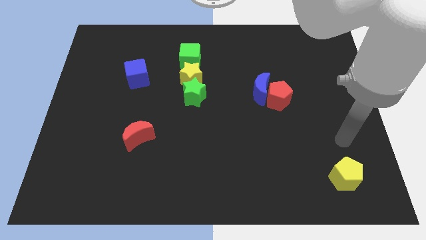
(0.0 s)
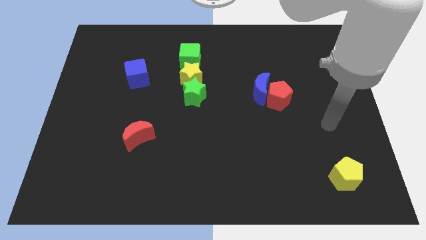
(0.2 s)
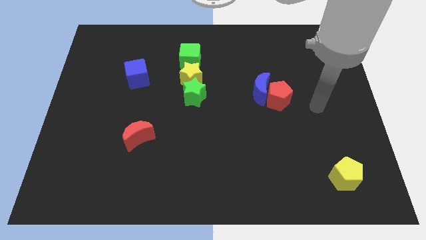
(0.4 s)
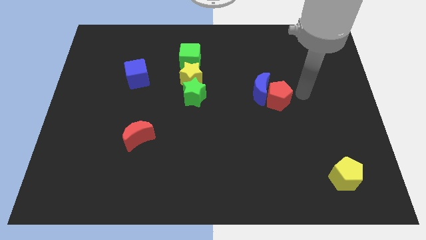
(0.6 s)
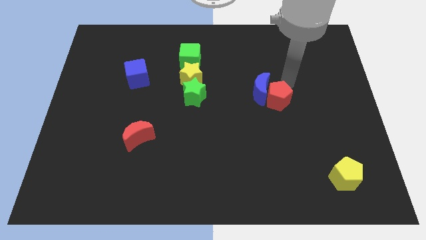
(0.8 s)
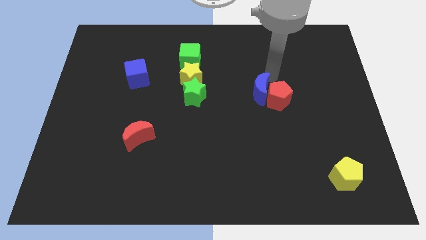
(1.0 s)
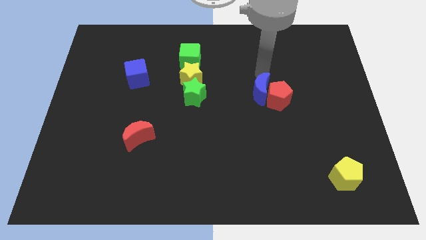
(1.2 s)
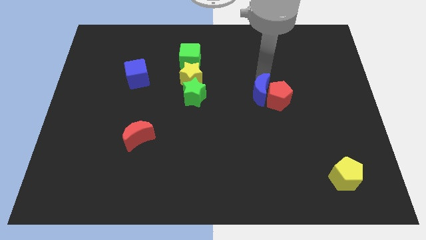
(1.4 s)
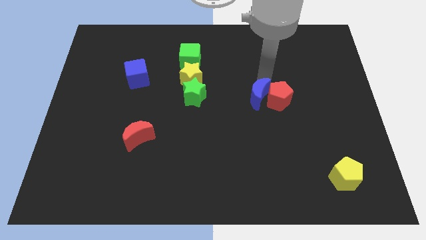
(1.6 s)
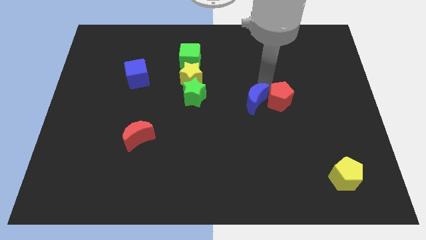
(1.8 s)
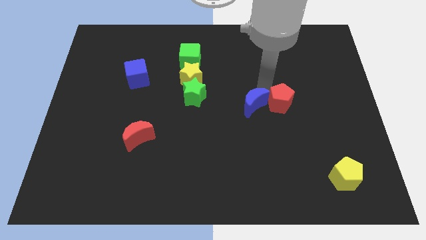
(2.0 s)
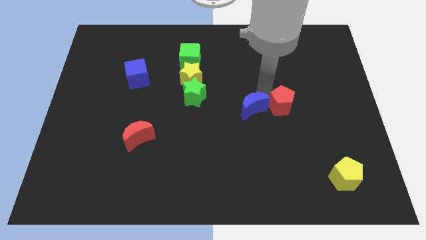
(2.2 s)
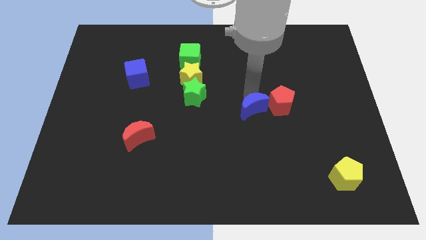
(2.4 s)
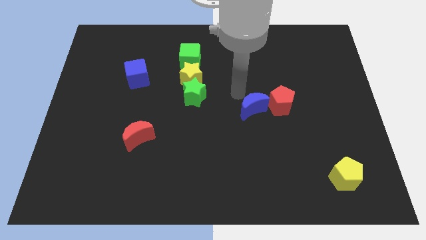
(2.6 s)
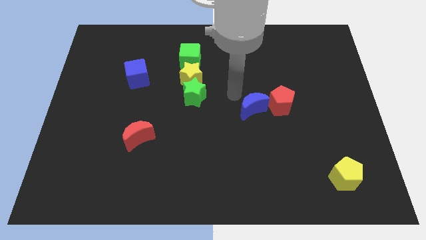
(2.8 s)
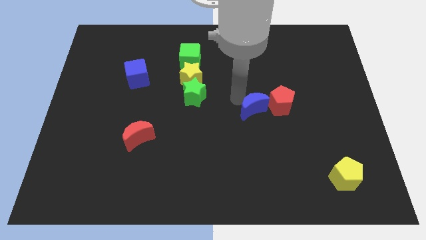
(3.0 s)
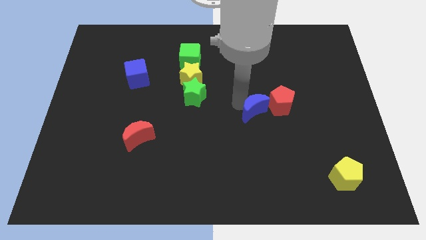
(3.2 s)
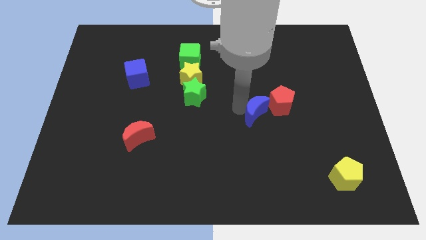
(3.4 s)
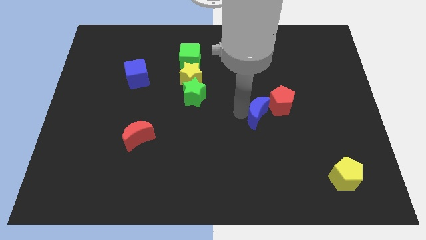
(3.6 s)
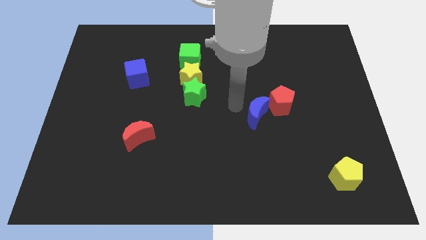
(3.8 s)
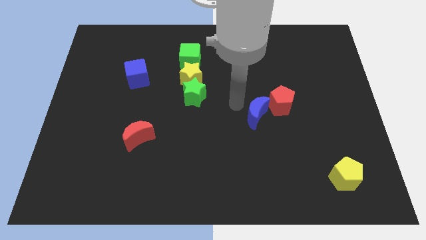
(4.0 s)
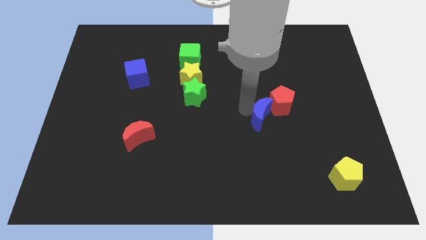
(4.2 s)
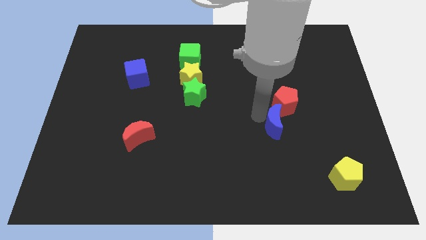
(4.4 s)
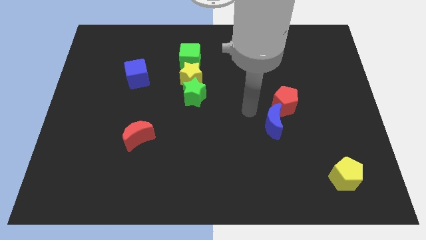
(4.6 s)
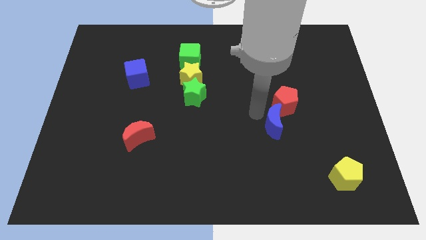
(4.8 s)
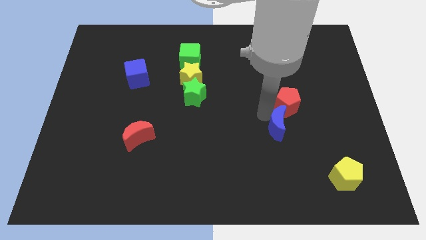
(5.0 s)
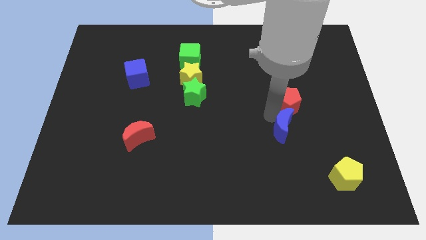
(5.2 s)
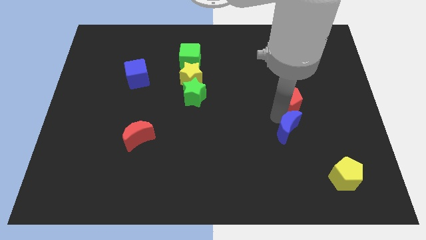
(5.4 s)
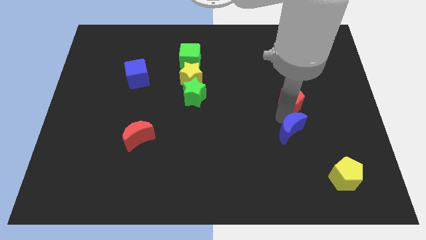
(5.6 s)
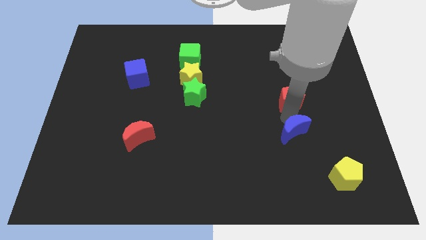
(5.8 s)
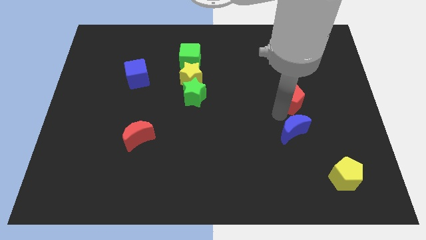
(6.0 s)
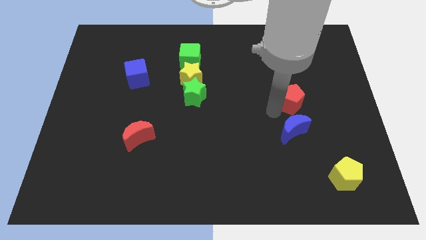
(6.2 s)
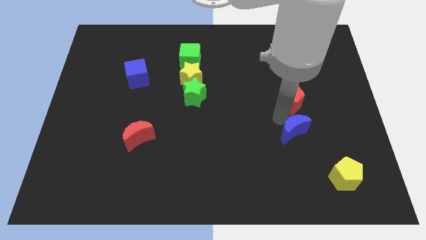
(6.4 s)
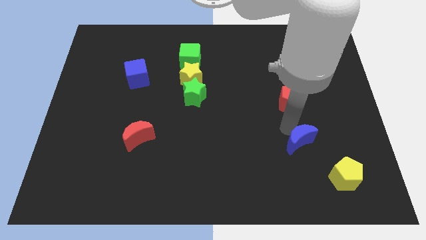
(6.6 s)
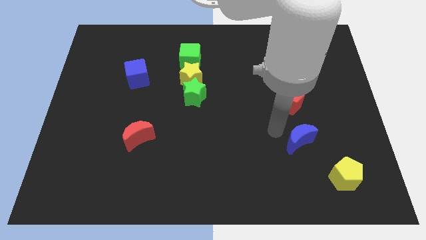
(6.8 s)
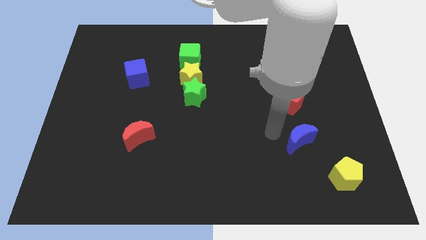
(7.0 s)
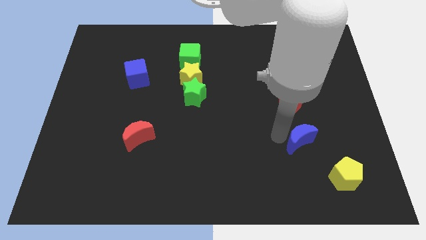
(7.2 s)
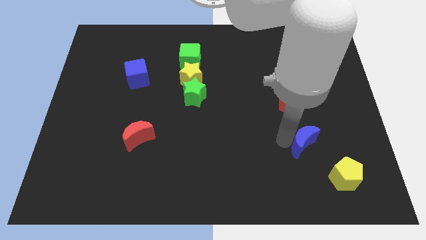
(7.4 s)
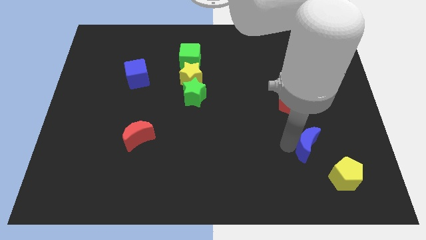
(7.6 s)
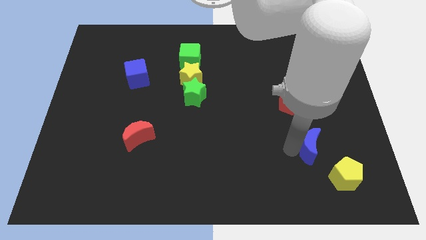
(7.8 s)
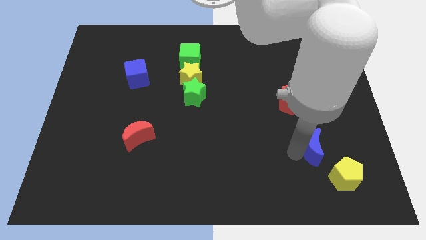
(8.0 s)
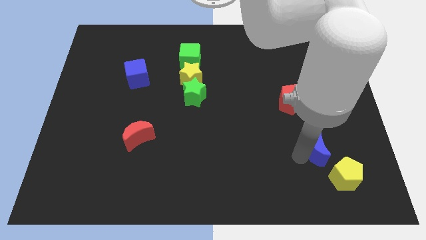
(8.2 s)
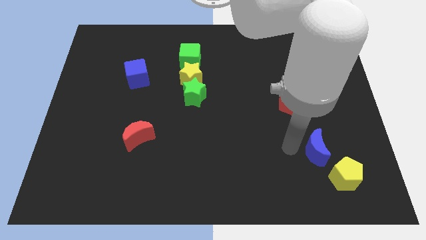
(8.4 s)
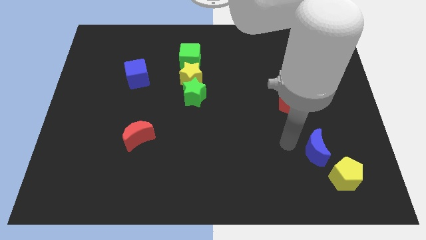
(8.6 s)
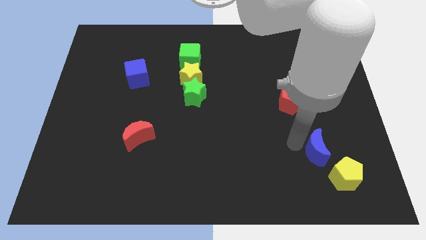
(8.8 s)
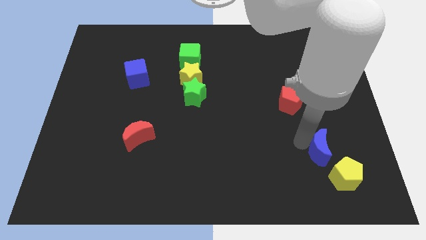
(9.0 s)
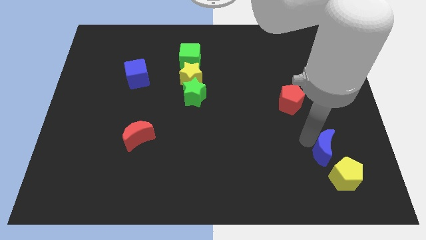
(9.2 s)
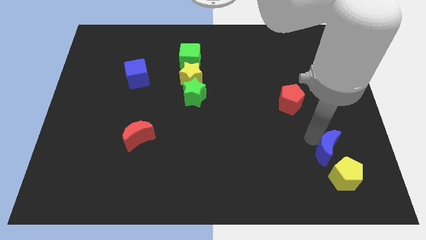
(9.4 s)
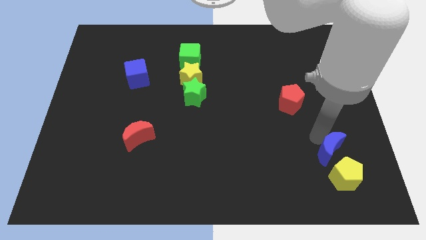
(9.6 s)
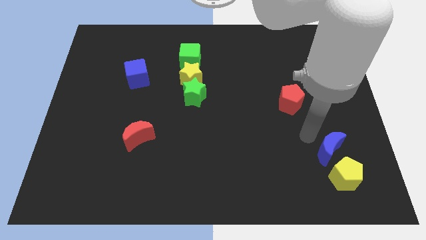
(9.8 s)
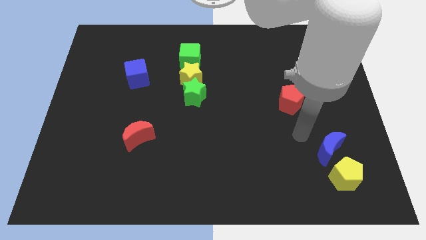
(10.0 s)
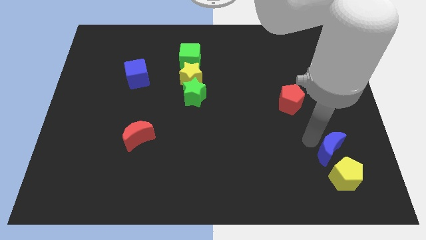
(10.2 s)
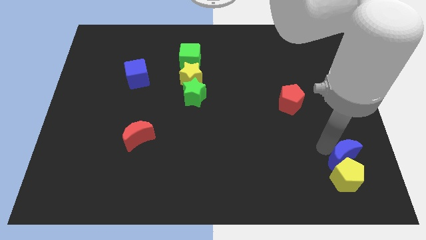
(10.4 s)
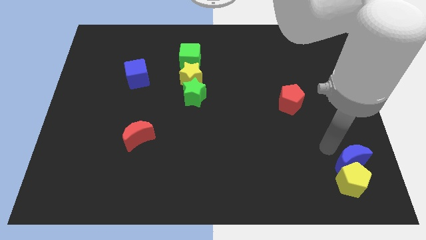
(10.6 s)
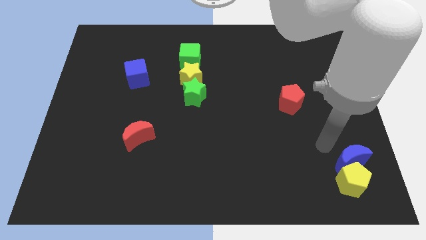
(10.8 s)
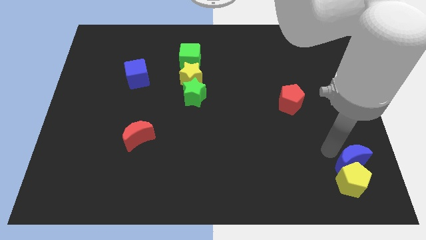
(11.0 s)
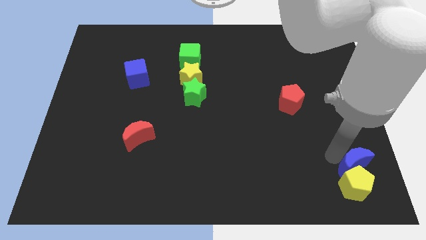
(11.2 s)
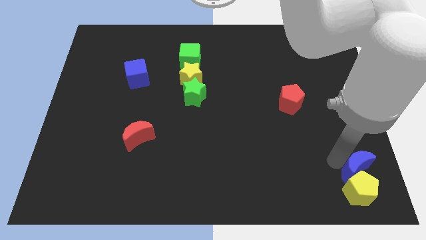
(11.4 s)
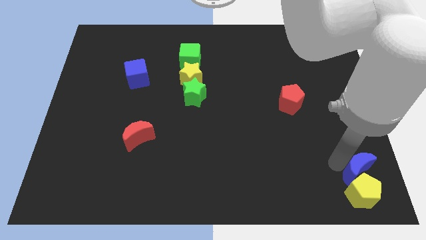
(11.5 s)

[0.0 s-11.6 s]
move the blue moon to the bottom right of the board

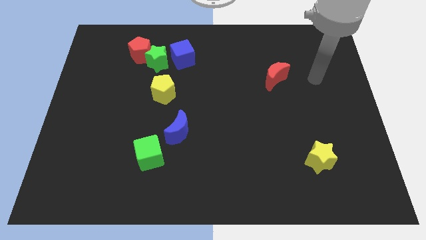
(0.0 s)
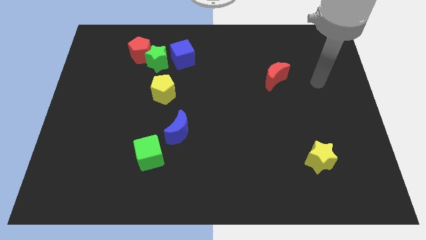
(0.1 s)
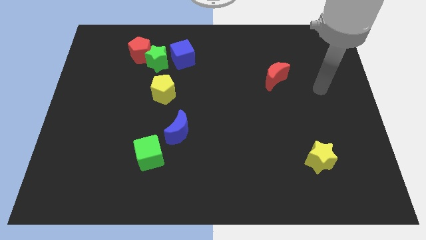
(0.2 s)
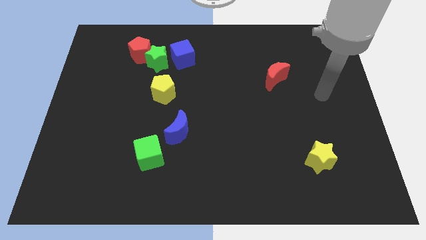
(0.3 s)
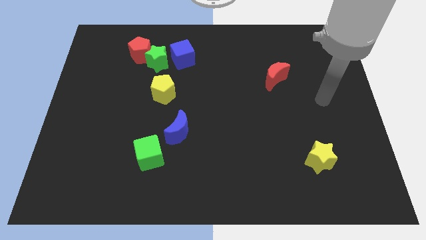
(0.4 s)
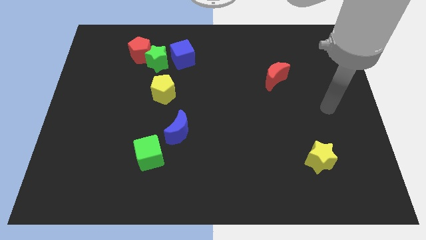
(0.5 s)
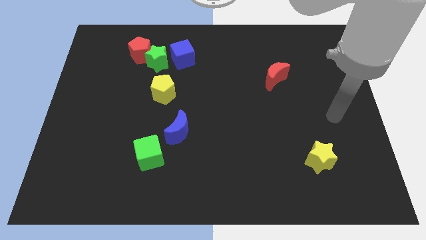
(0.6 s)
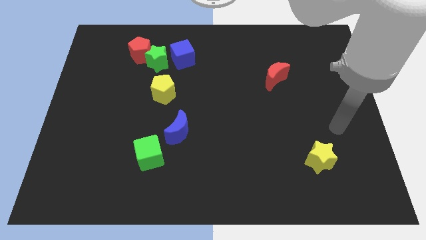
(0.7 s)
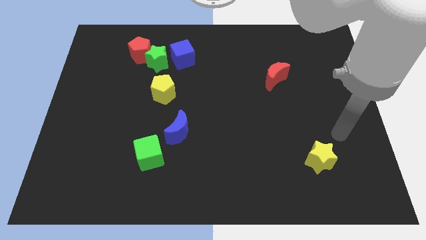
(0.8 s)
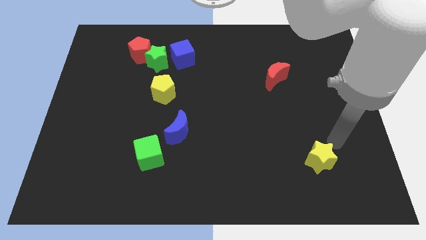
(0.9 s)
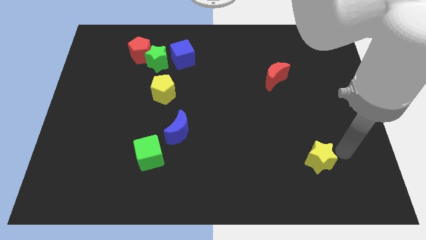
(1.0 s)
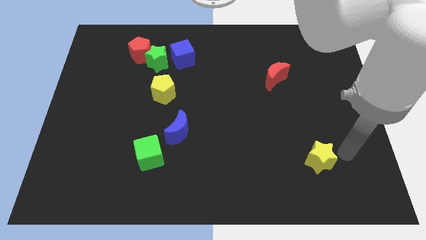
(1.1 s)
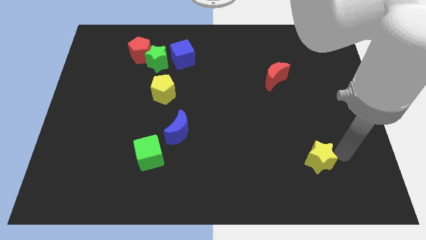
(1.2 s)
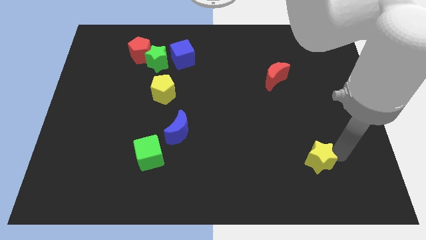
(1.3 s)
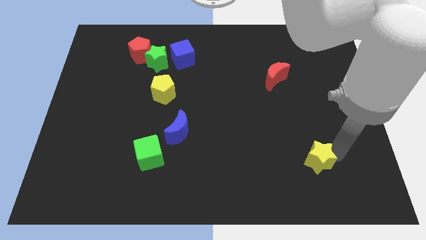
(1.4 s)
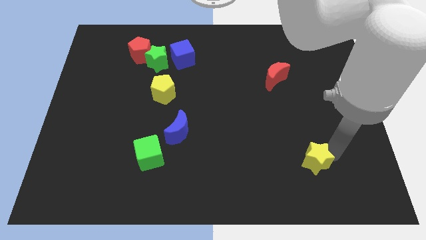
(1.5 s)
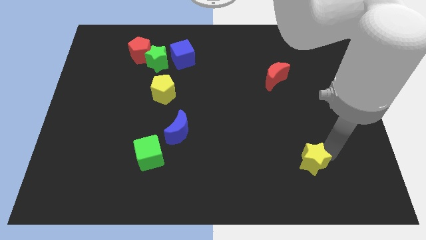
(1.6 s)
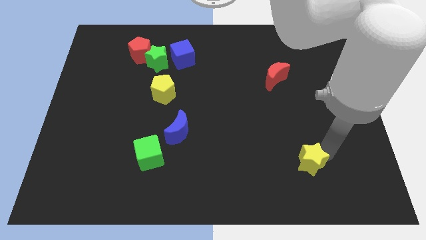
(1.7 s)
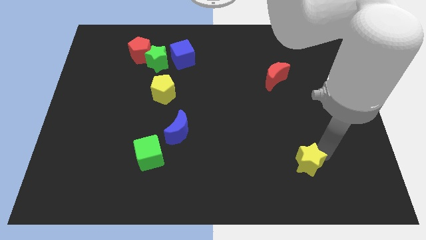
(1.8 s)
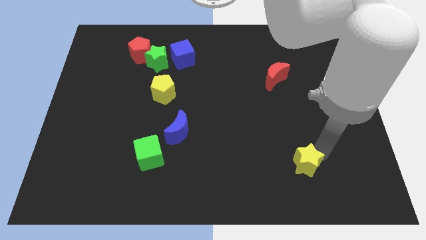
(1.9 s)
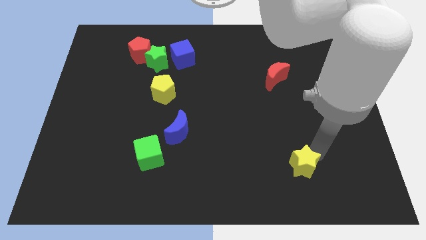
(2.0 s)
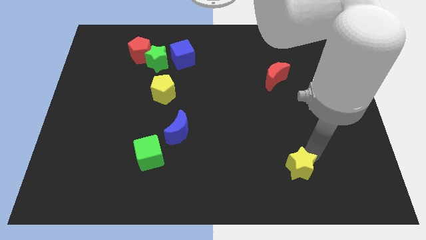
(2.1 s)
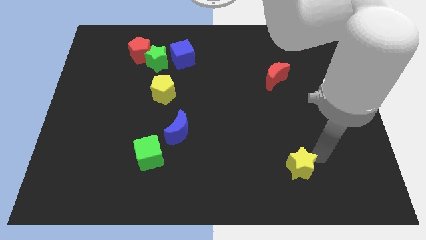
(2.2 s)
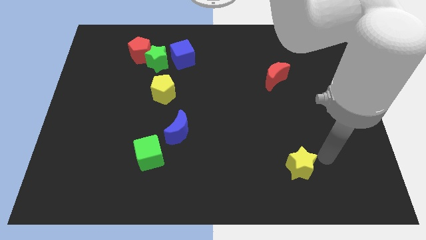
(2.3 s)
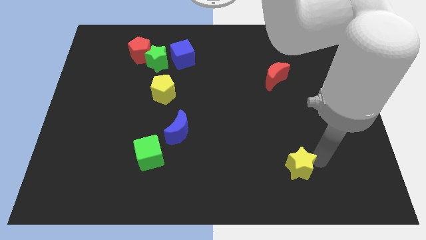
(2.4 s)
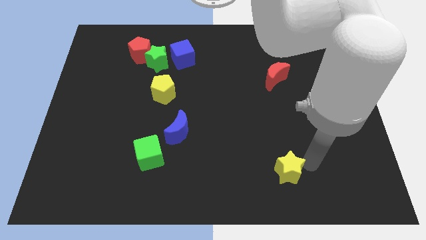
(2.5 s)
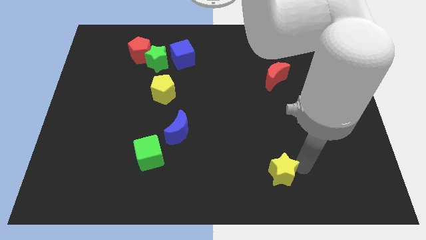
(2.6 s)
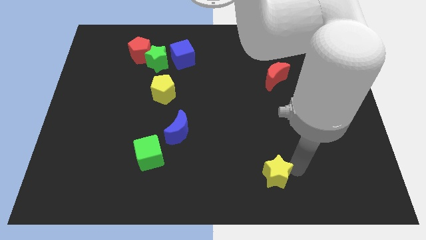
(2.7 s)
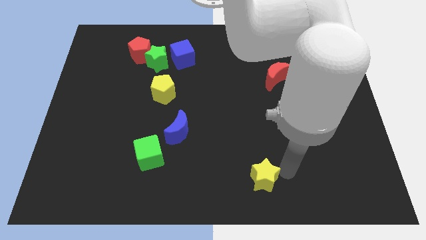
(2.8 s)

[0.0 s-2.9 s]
push the yellow star to the bottom side
